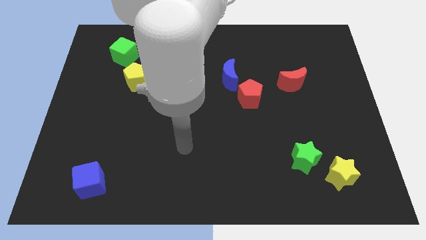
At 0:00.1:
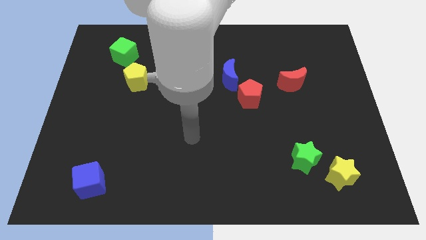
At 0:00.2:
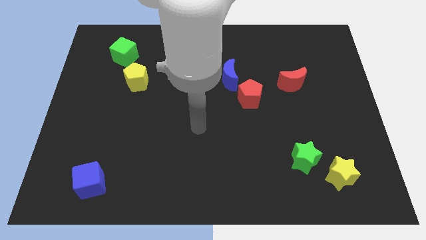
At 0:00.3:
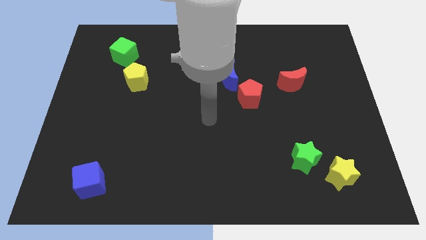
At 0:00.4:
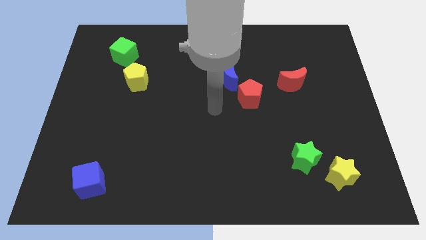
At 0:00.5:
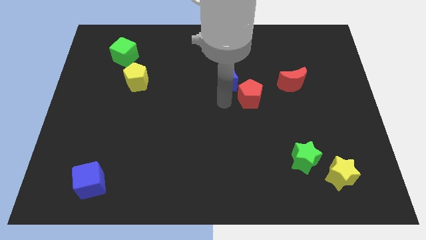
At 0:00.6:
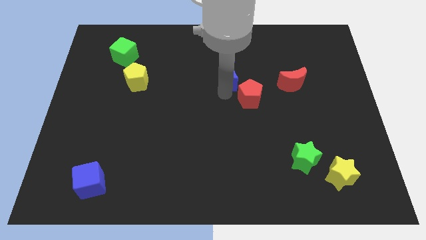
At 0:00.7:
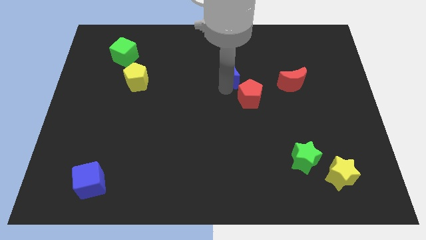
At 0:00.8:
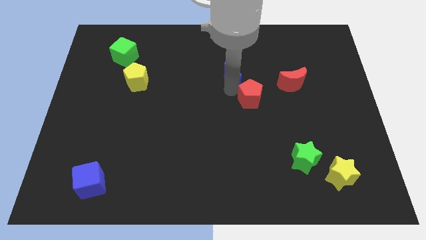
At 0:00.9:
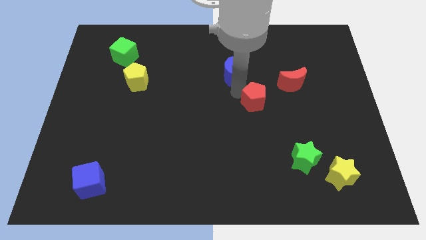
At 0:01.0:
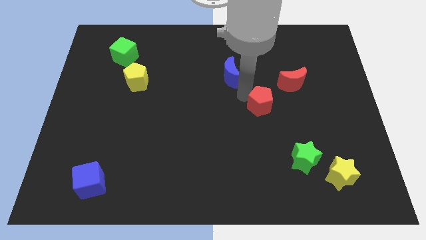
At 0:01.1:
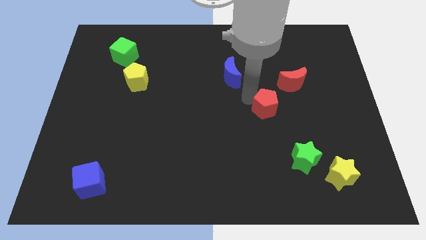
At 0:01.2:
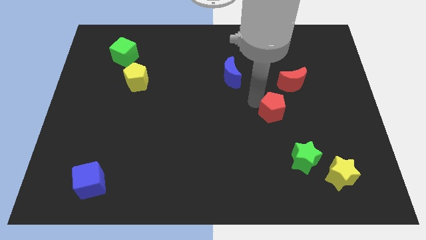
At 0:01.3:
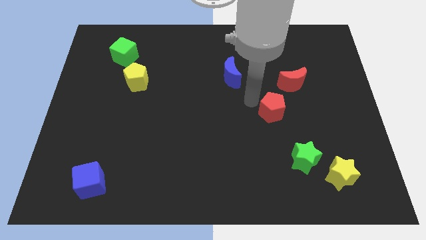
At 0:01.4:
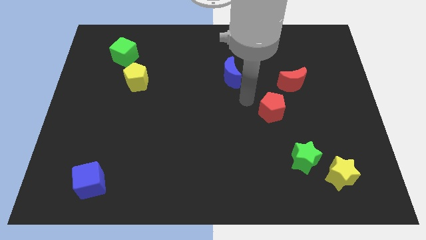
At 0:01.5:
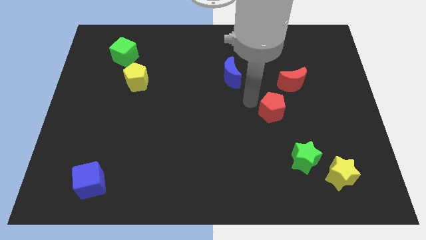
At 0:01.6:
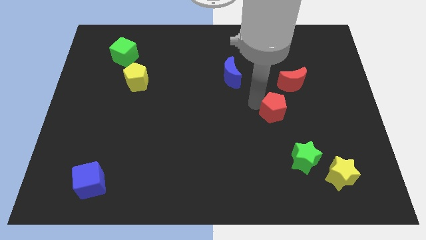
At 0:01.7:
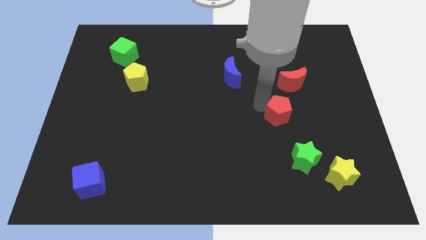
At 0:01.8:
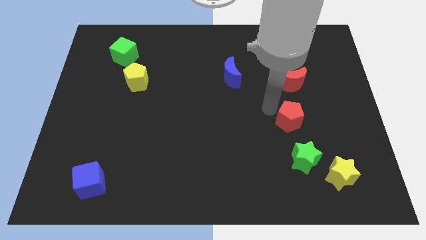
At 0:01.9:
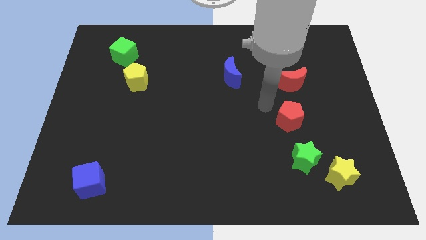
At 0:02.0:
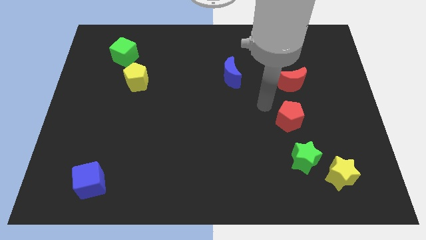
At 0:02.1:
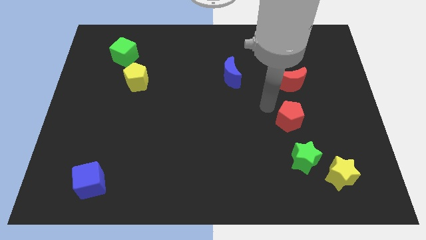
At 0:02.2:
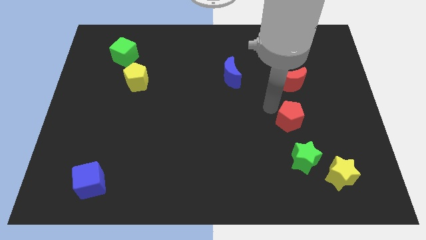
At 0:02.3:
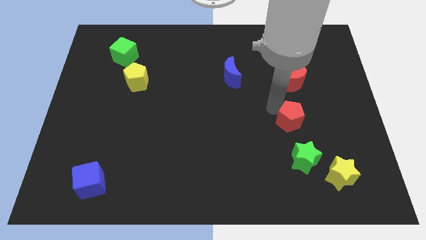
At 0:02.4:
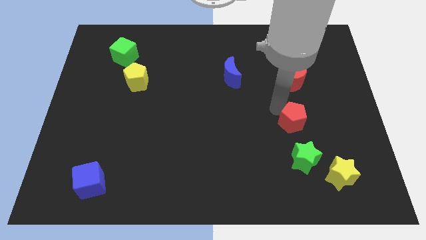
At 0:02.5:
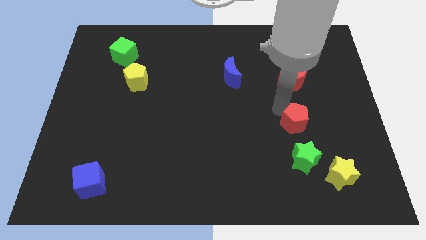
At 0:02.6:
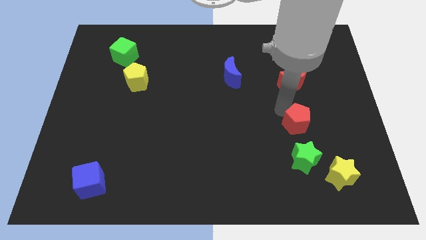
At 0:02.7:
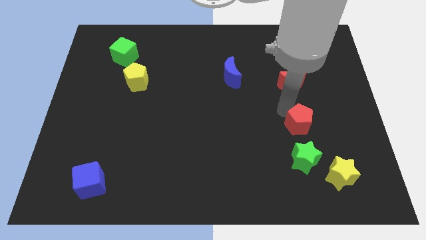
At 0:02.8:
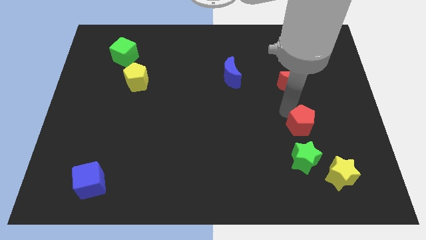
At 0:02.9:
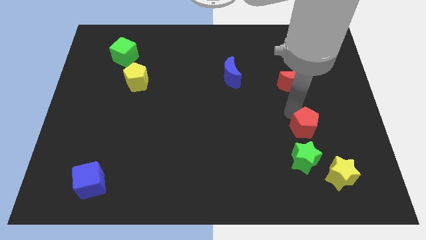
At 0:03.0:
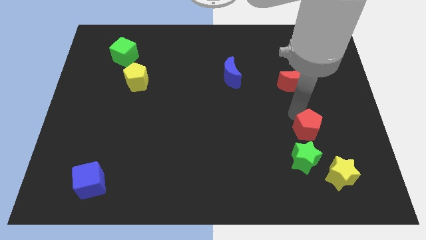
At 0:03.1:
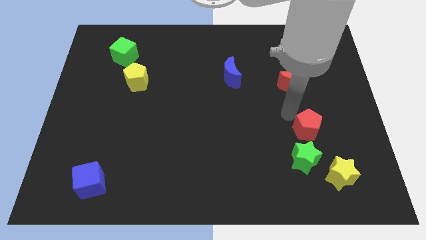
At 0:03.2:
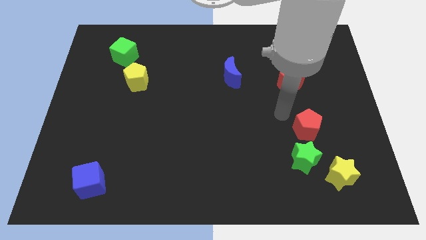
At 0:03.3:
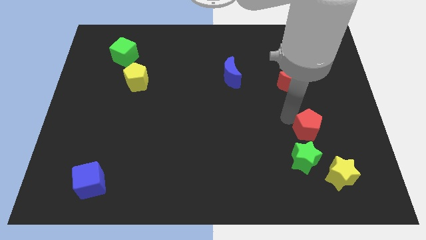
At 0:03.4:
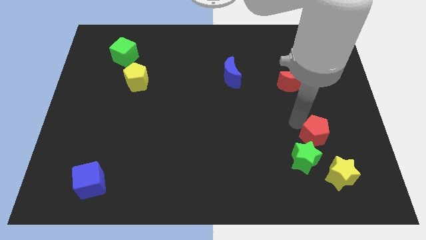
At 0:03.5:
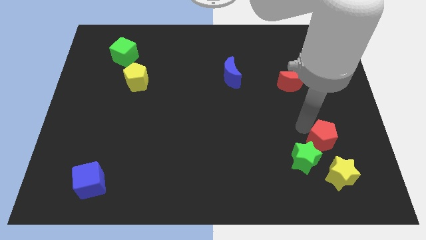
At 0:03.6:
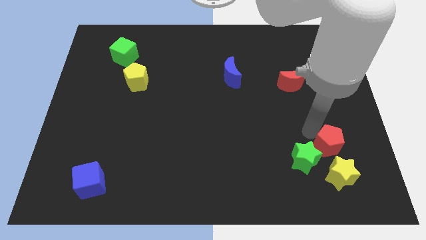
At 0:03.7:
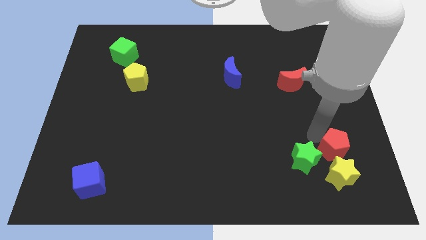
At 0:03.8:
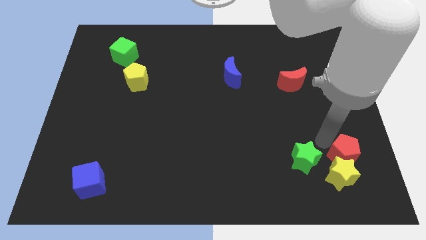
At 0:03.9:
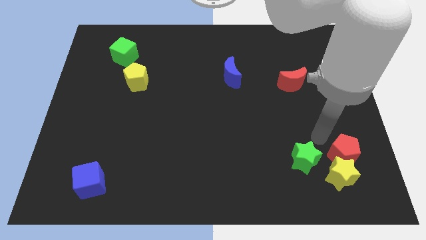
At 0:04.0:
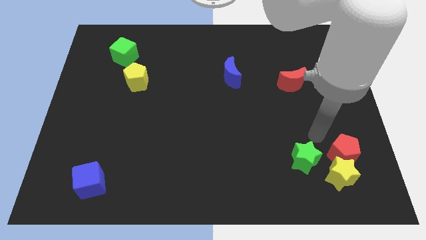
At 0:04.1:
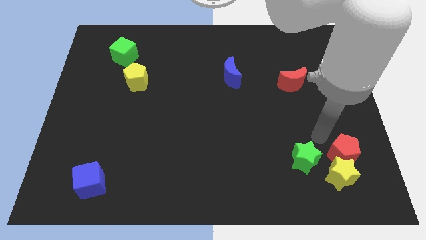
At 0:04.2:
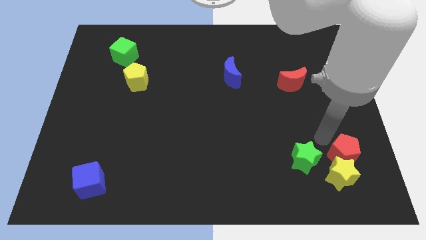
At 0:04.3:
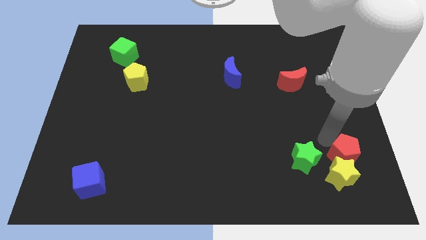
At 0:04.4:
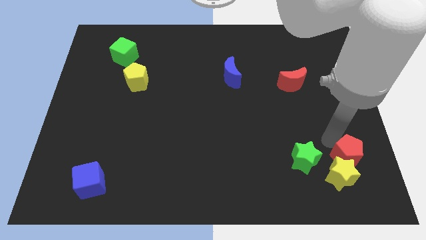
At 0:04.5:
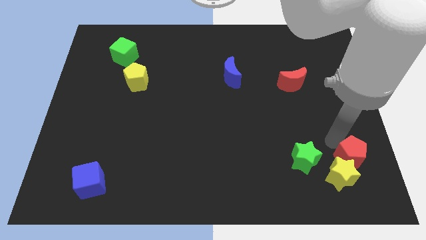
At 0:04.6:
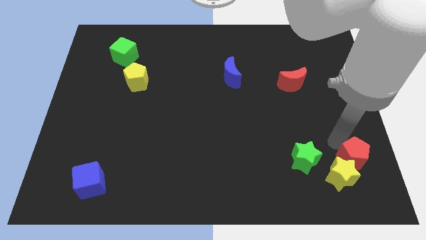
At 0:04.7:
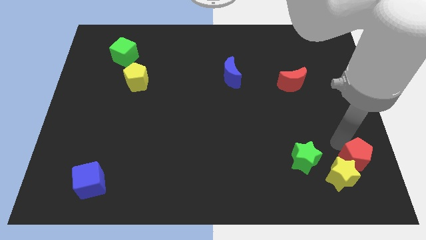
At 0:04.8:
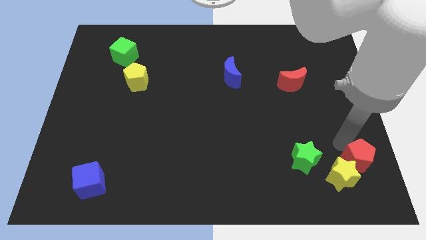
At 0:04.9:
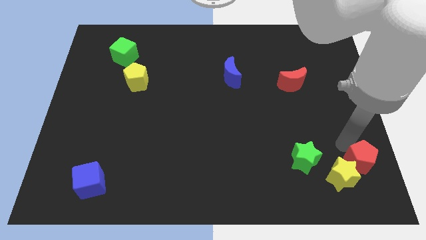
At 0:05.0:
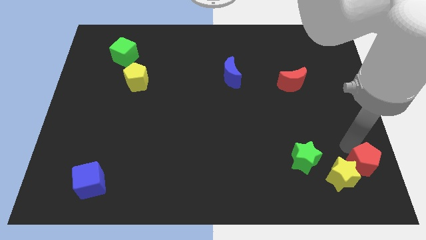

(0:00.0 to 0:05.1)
slide the red pentagon to the lower right corner

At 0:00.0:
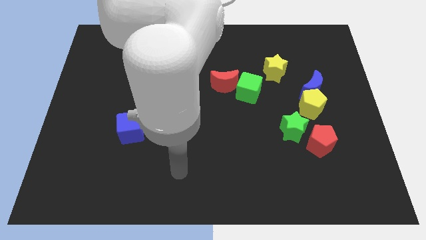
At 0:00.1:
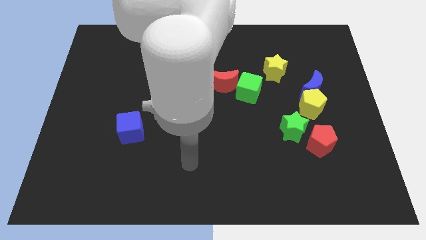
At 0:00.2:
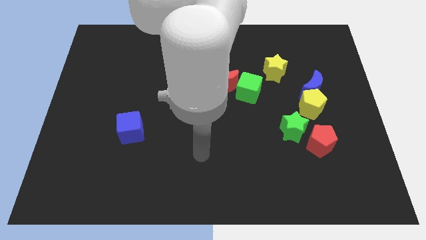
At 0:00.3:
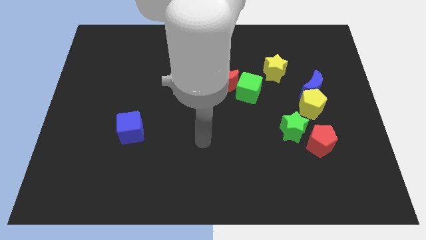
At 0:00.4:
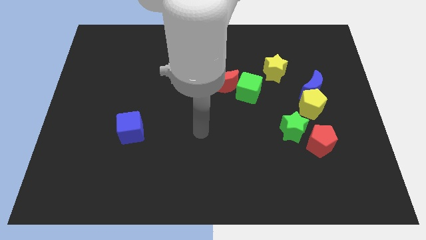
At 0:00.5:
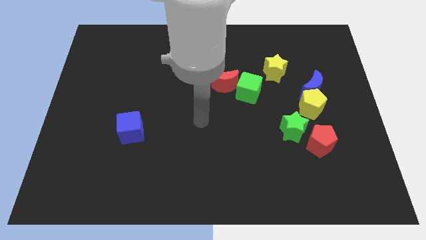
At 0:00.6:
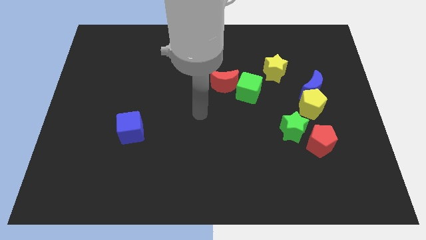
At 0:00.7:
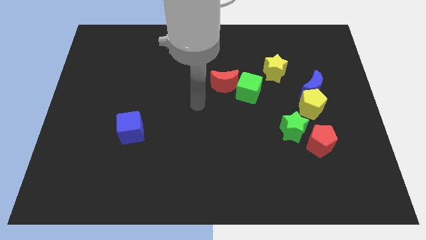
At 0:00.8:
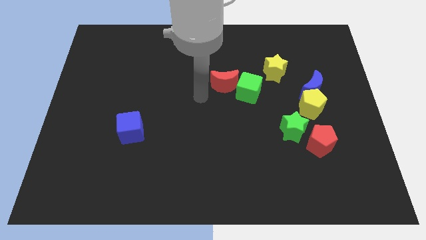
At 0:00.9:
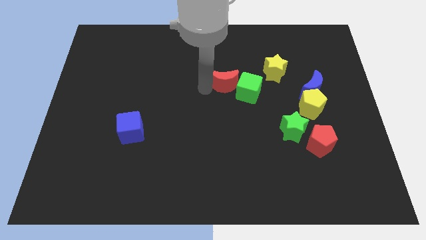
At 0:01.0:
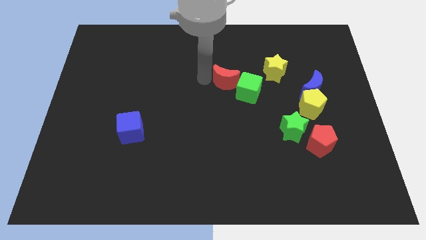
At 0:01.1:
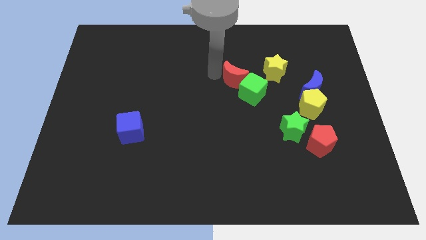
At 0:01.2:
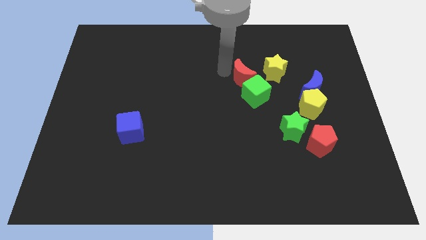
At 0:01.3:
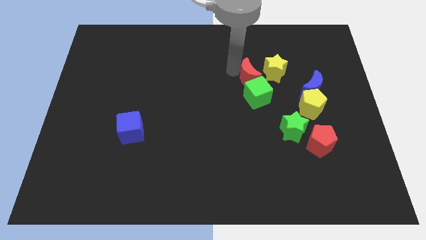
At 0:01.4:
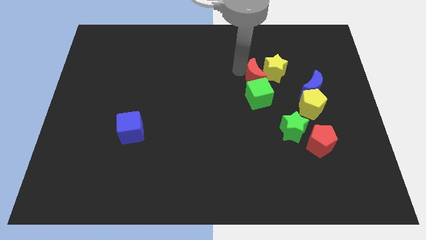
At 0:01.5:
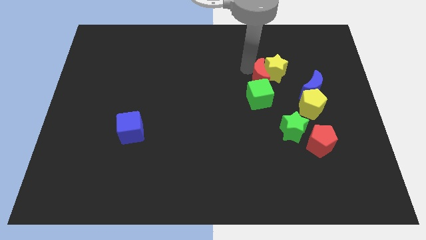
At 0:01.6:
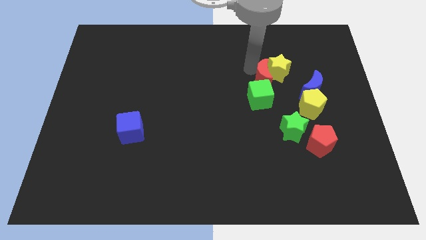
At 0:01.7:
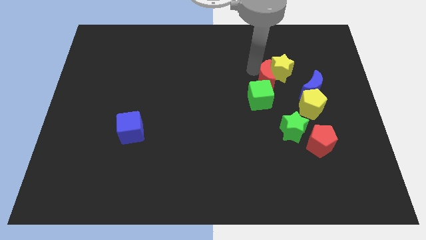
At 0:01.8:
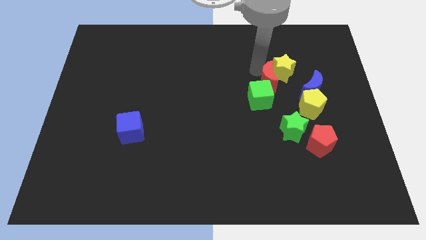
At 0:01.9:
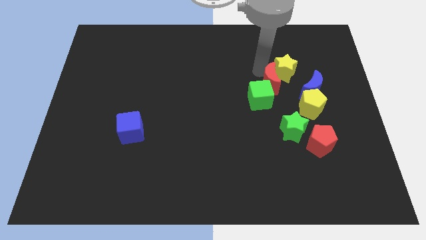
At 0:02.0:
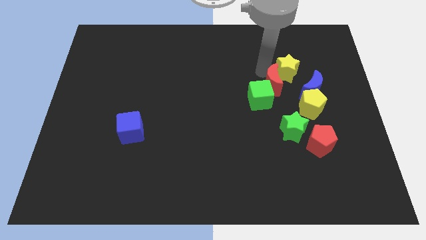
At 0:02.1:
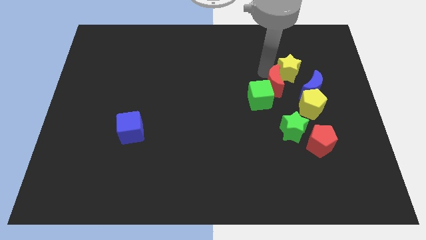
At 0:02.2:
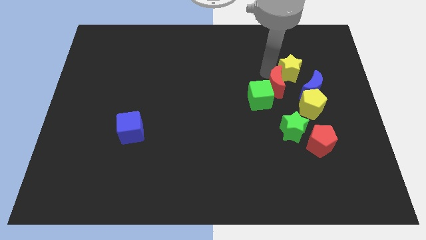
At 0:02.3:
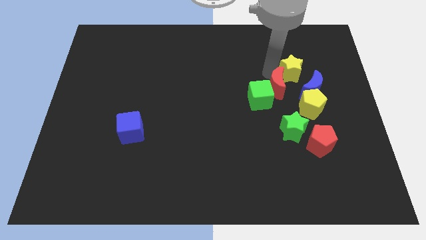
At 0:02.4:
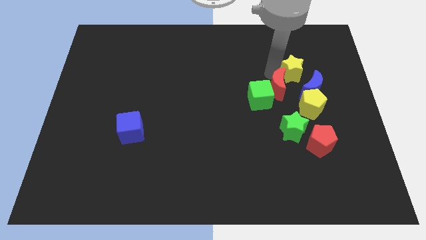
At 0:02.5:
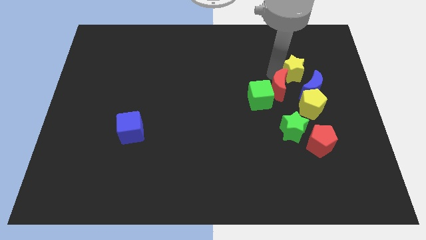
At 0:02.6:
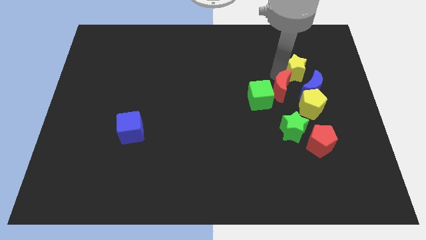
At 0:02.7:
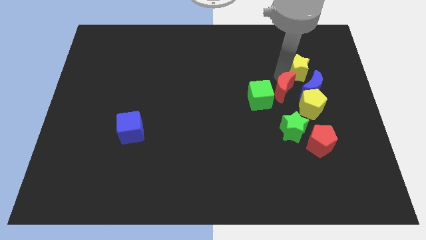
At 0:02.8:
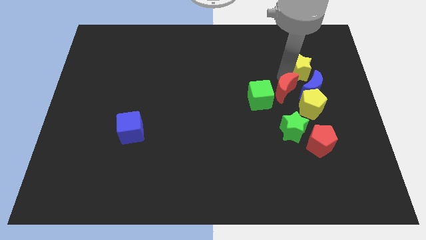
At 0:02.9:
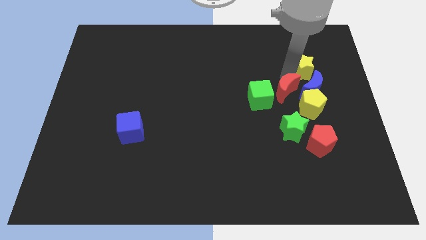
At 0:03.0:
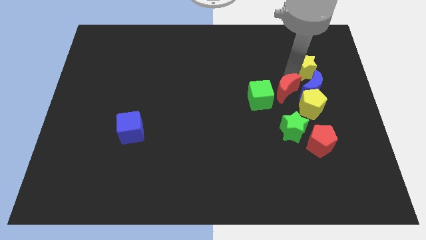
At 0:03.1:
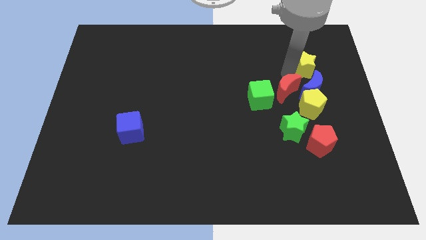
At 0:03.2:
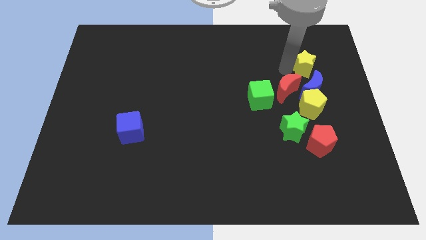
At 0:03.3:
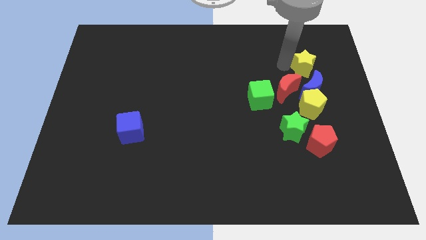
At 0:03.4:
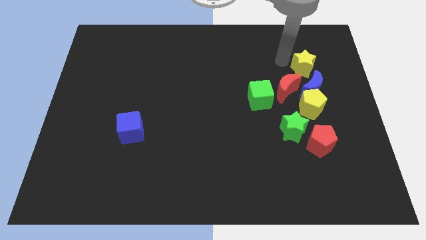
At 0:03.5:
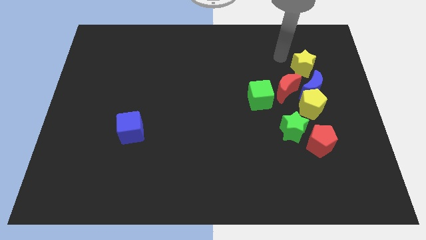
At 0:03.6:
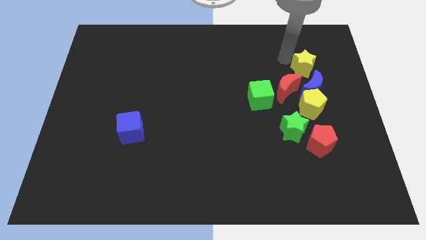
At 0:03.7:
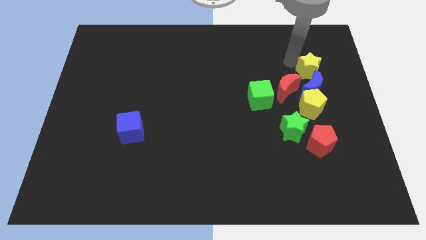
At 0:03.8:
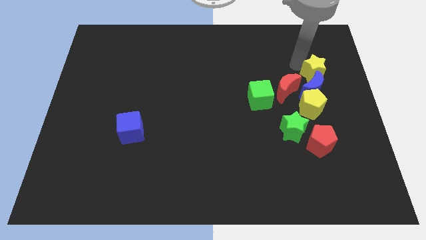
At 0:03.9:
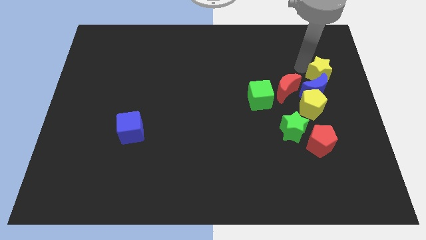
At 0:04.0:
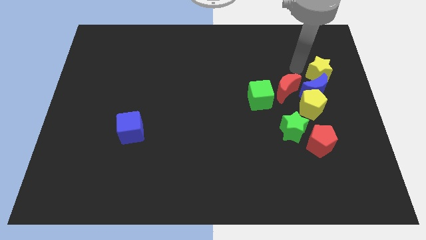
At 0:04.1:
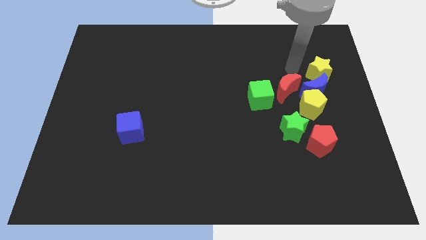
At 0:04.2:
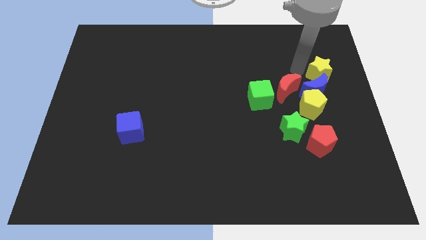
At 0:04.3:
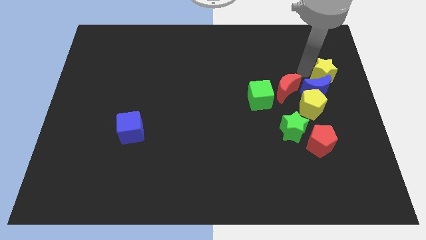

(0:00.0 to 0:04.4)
move the yellow star to the right side of the board
